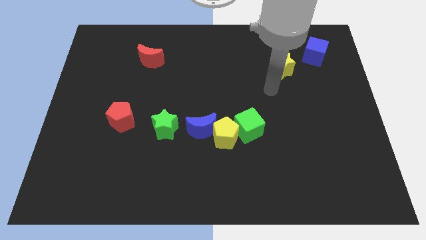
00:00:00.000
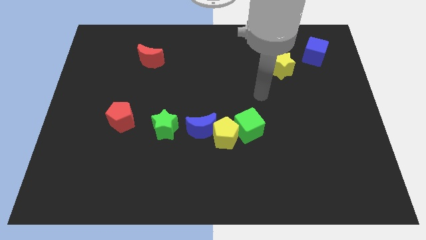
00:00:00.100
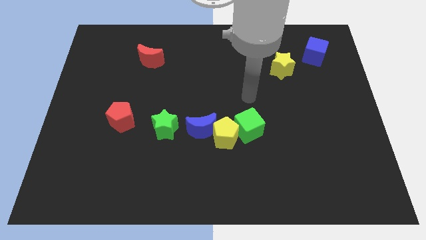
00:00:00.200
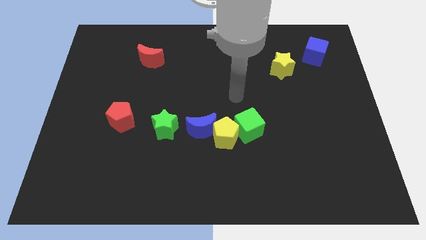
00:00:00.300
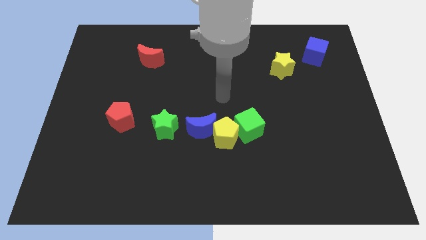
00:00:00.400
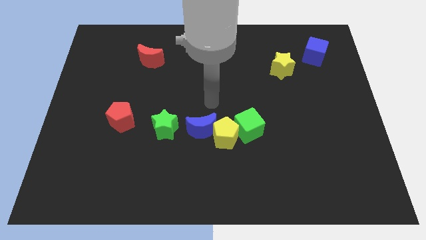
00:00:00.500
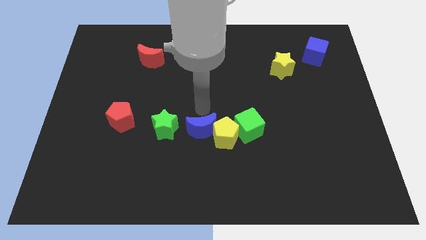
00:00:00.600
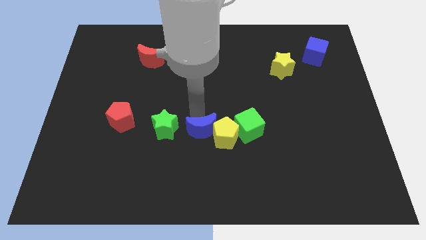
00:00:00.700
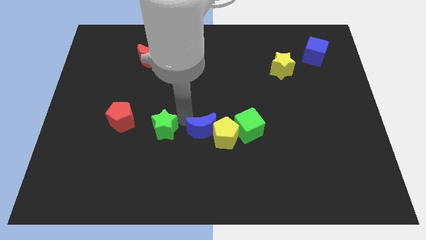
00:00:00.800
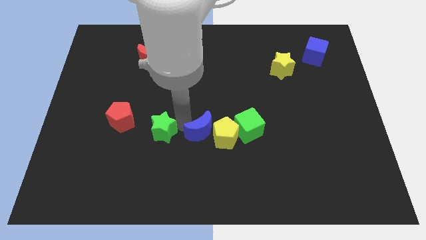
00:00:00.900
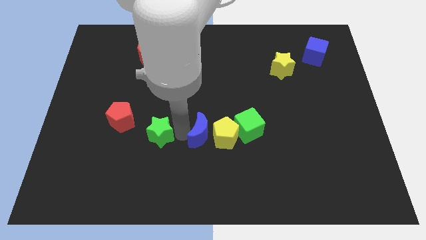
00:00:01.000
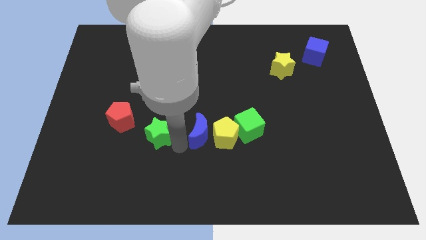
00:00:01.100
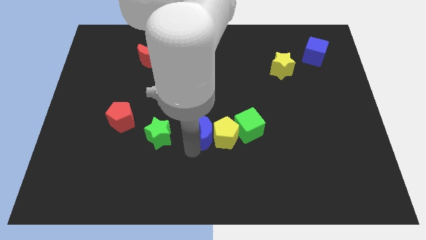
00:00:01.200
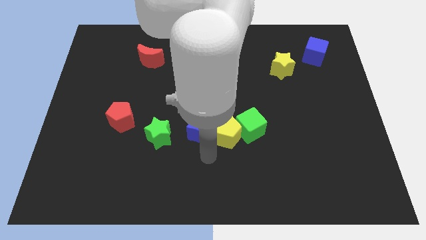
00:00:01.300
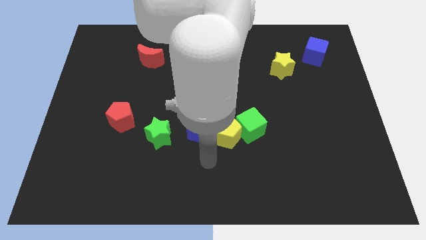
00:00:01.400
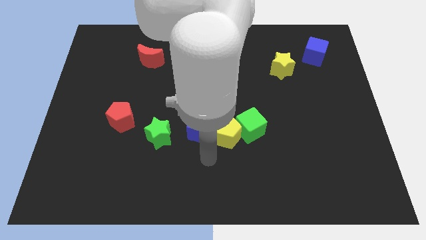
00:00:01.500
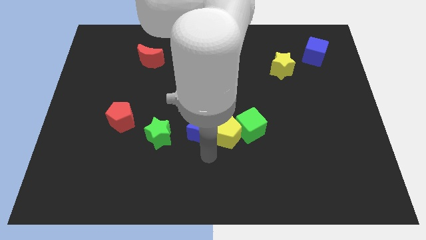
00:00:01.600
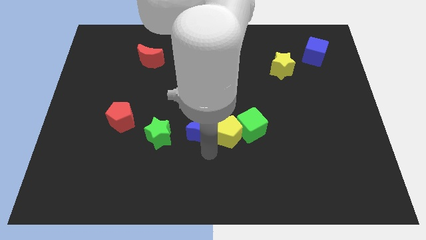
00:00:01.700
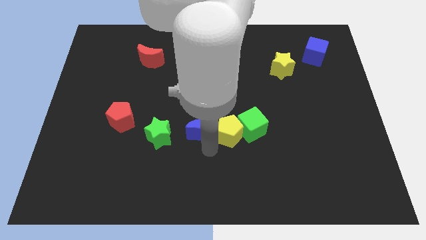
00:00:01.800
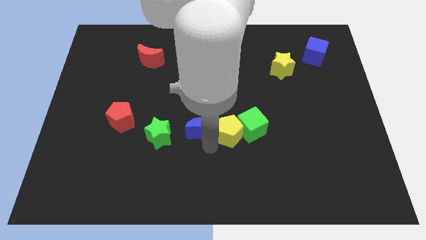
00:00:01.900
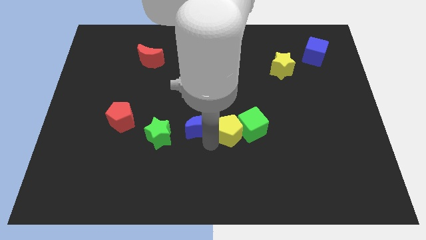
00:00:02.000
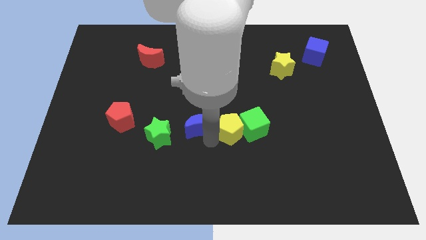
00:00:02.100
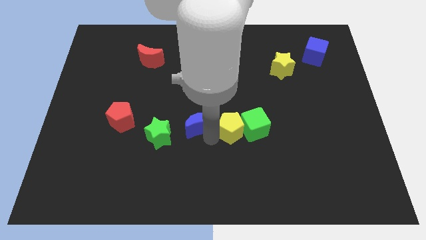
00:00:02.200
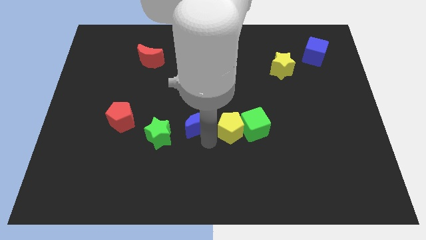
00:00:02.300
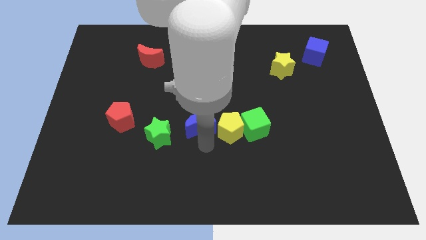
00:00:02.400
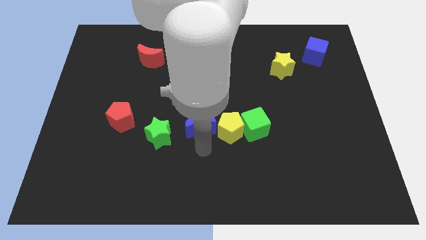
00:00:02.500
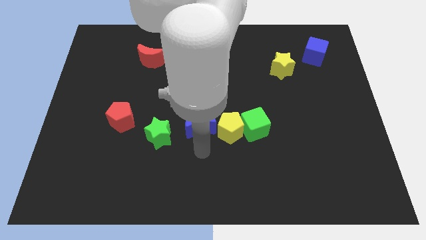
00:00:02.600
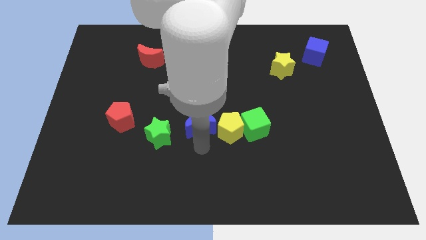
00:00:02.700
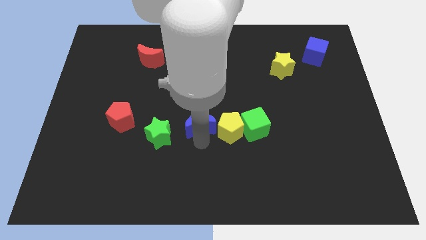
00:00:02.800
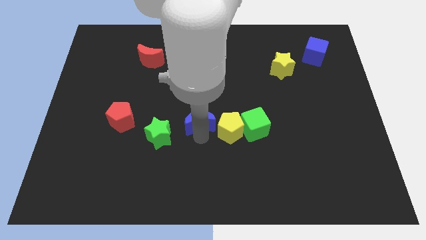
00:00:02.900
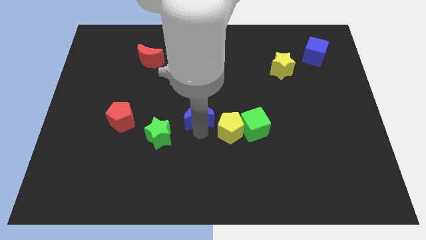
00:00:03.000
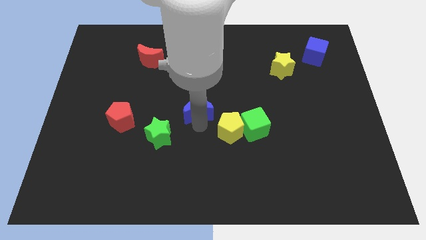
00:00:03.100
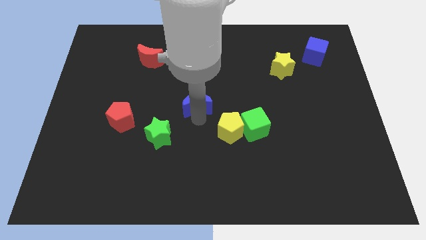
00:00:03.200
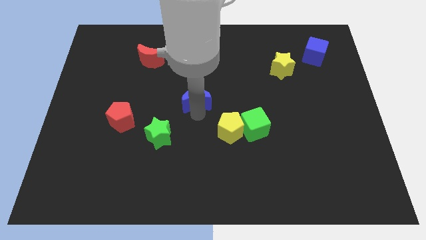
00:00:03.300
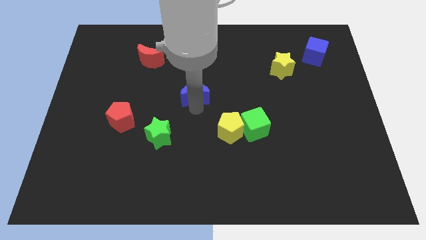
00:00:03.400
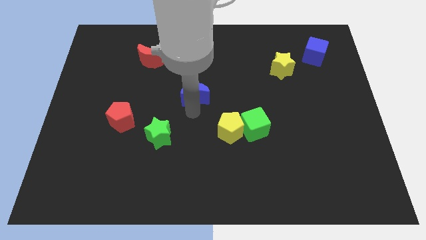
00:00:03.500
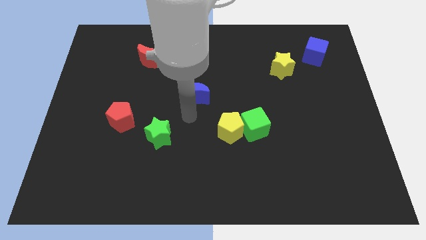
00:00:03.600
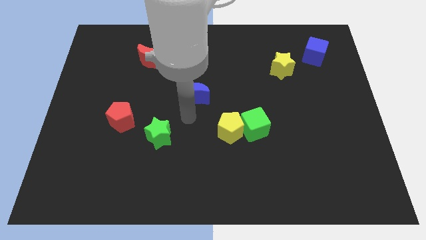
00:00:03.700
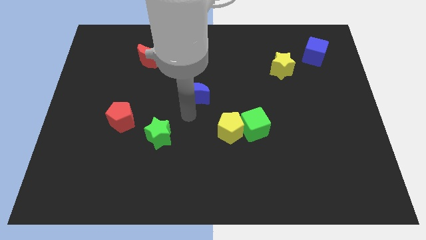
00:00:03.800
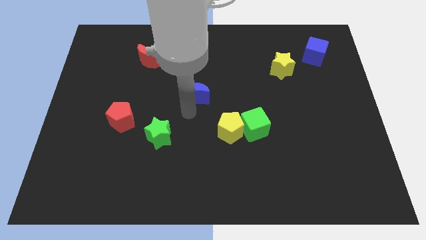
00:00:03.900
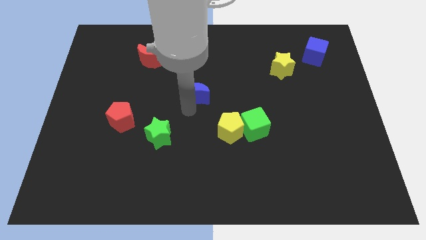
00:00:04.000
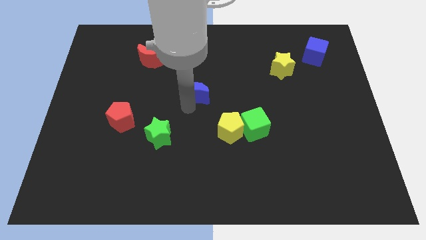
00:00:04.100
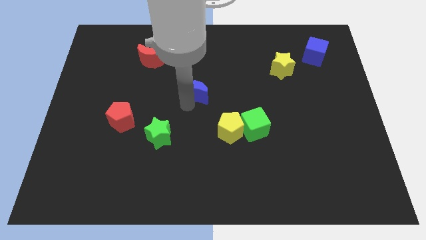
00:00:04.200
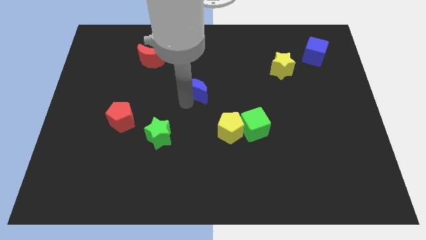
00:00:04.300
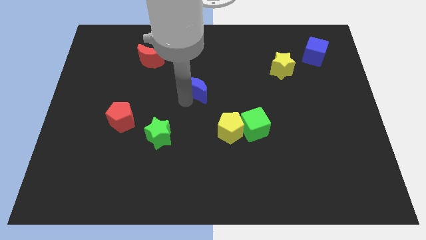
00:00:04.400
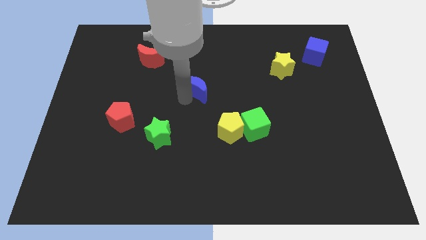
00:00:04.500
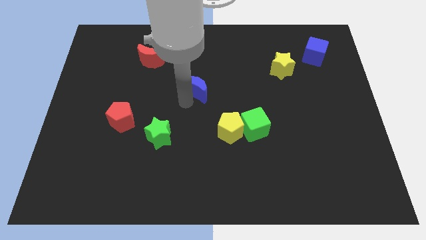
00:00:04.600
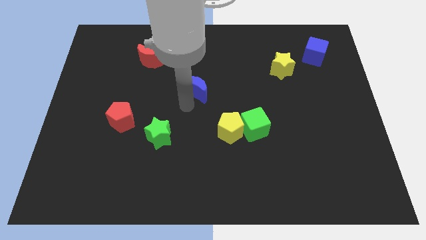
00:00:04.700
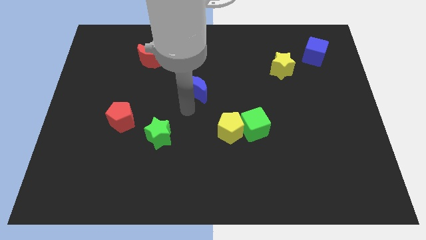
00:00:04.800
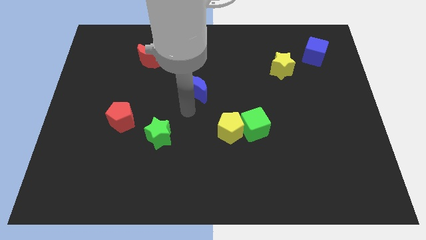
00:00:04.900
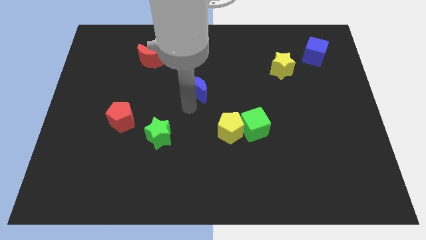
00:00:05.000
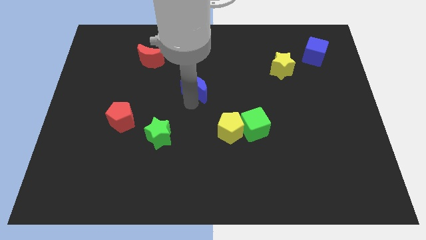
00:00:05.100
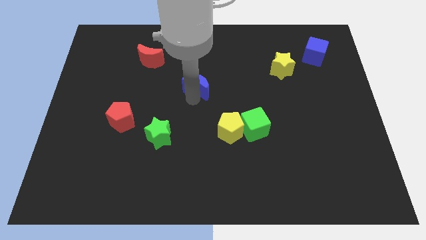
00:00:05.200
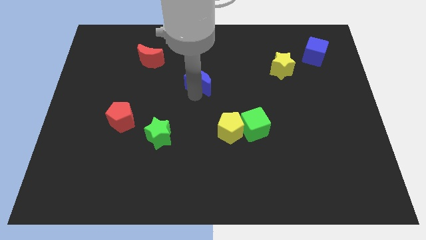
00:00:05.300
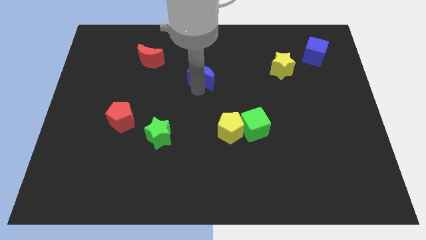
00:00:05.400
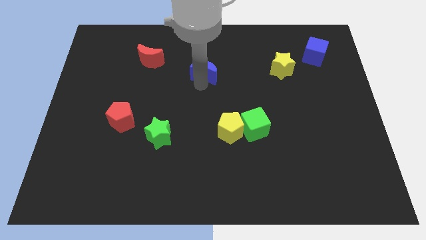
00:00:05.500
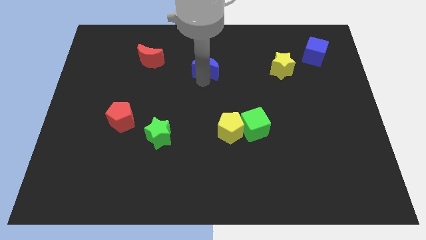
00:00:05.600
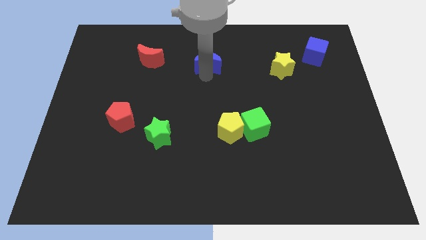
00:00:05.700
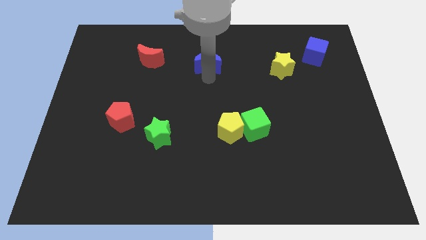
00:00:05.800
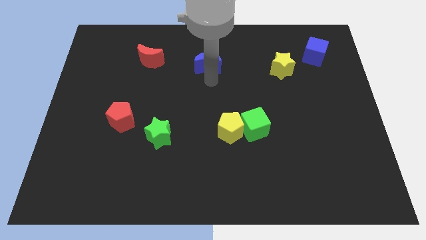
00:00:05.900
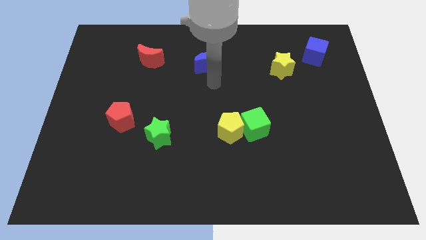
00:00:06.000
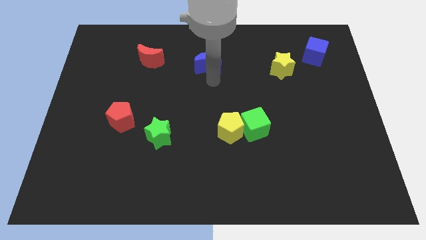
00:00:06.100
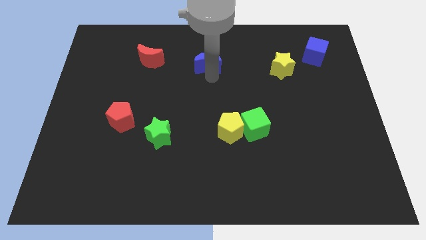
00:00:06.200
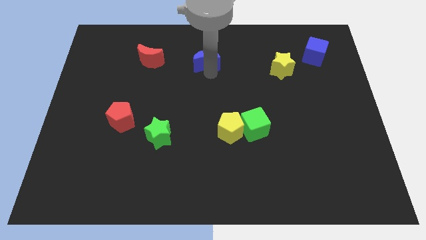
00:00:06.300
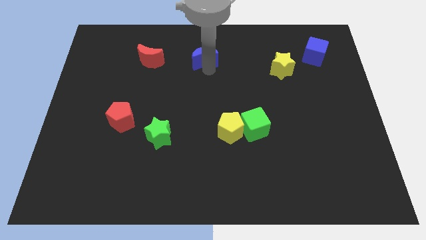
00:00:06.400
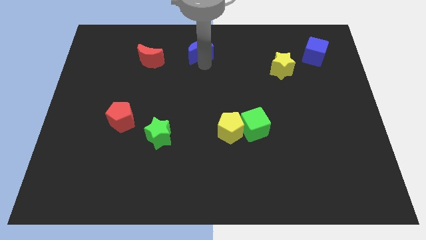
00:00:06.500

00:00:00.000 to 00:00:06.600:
move the blue moon to the towards your base
